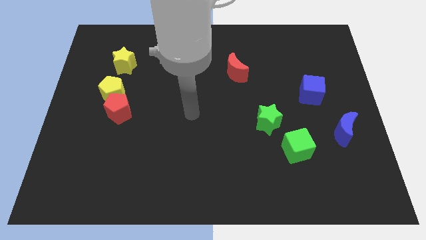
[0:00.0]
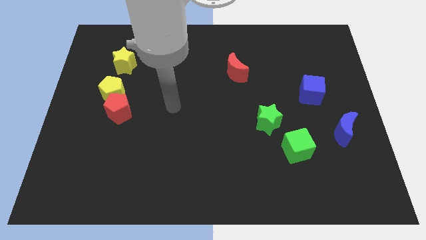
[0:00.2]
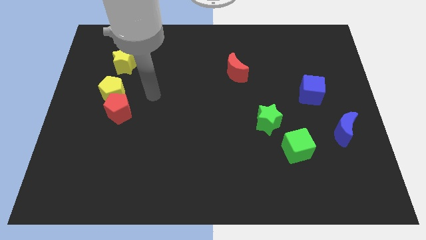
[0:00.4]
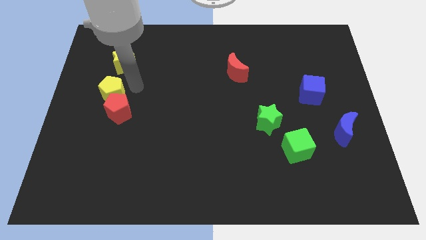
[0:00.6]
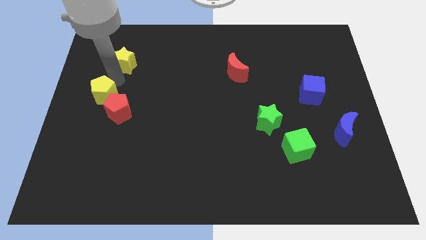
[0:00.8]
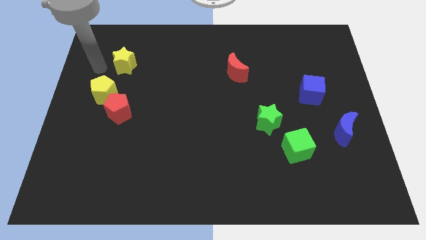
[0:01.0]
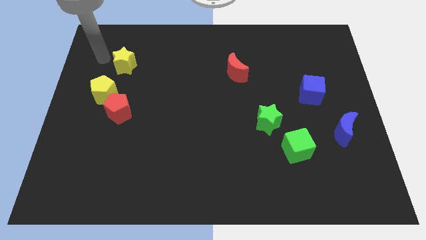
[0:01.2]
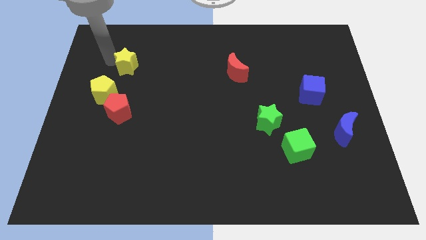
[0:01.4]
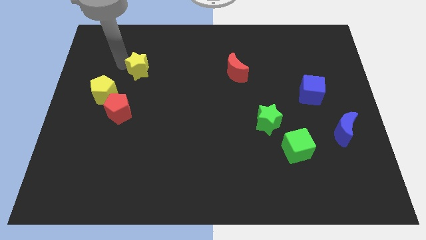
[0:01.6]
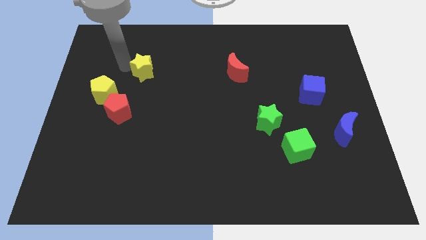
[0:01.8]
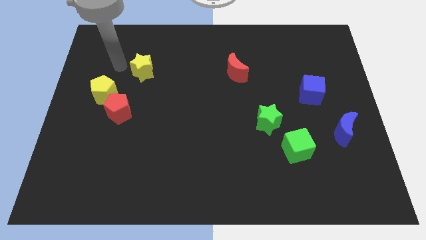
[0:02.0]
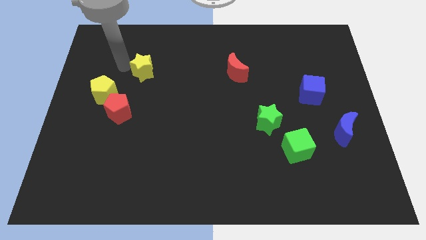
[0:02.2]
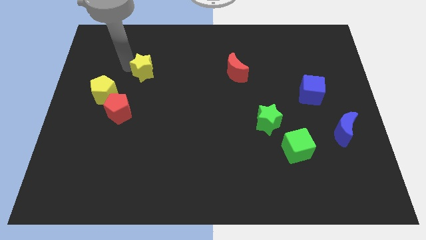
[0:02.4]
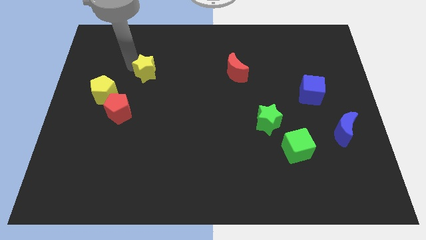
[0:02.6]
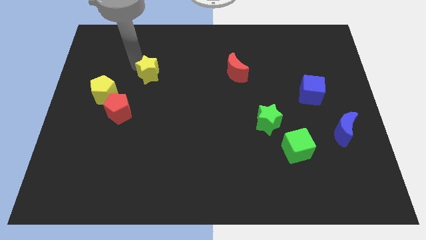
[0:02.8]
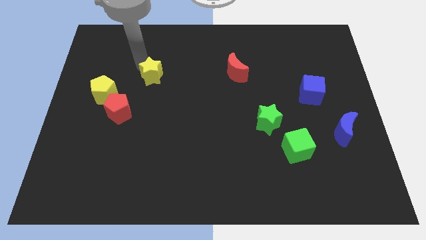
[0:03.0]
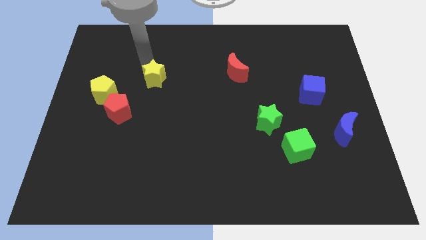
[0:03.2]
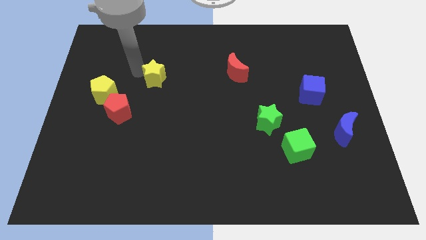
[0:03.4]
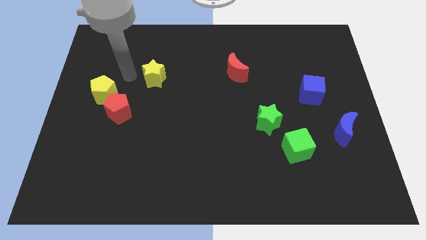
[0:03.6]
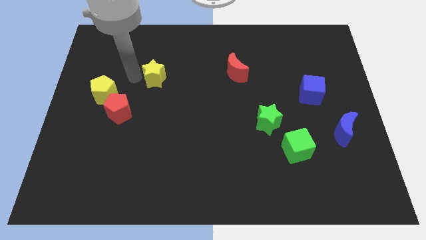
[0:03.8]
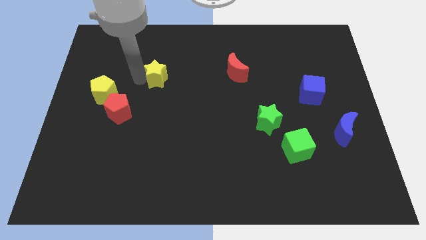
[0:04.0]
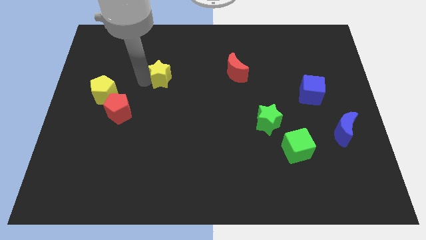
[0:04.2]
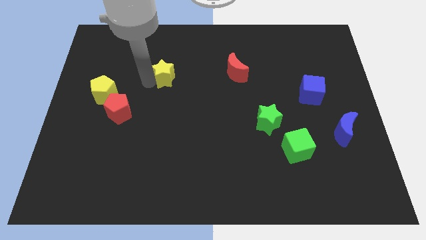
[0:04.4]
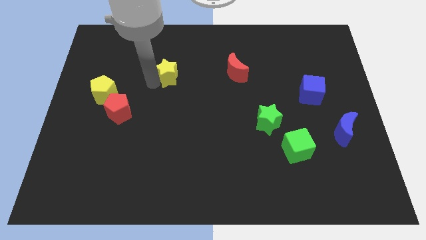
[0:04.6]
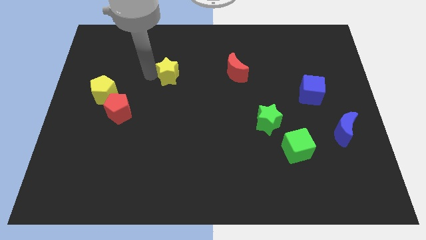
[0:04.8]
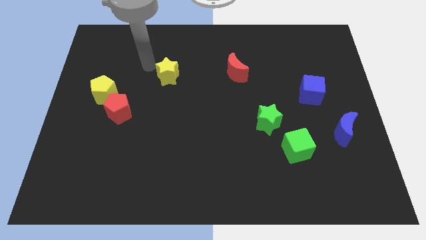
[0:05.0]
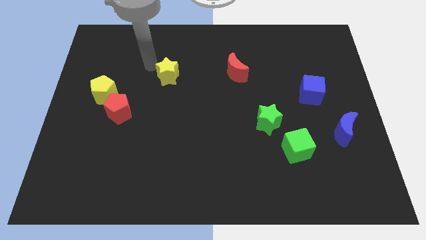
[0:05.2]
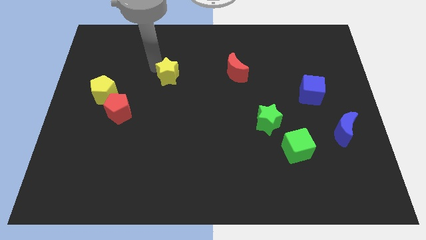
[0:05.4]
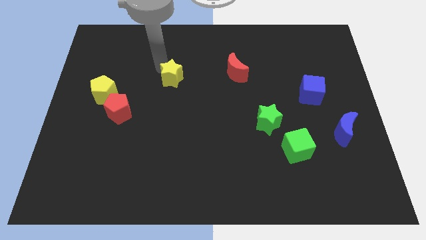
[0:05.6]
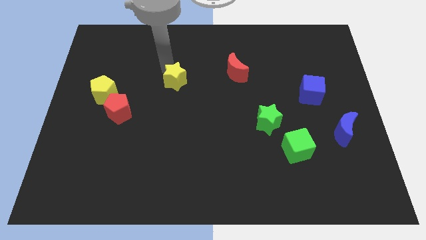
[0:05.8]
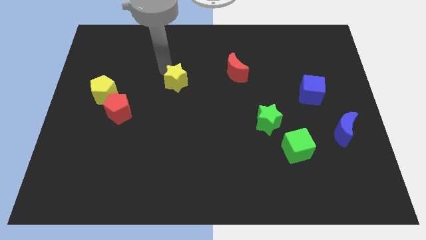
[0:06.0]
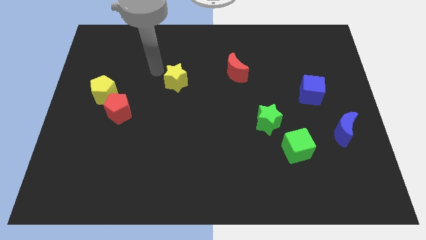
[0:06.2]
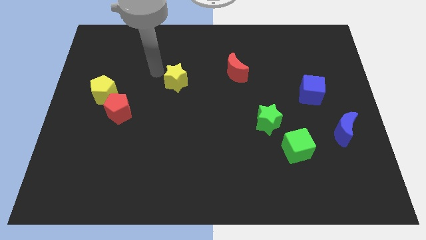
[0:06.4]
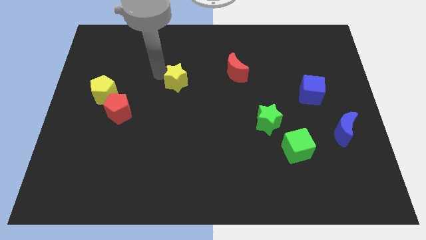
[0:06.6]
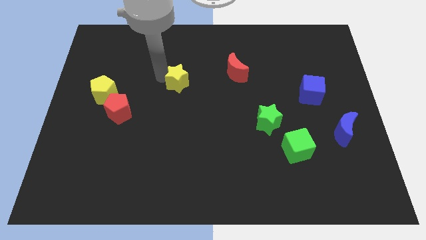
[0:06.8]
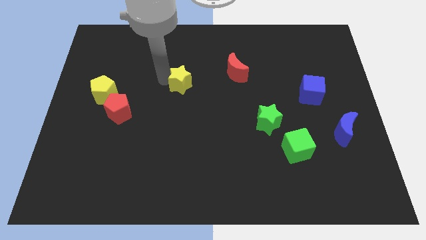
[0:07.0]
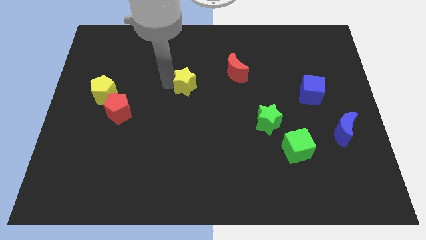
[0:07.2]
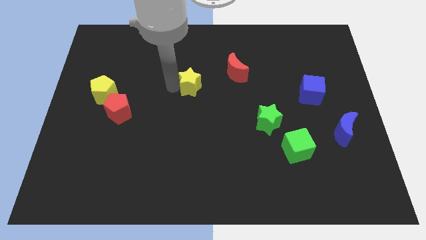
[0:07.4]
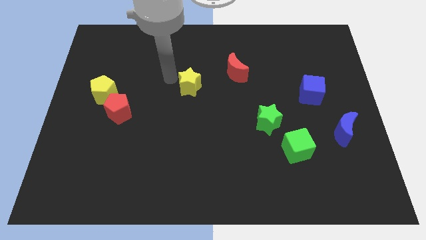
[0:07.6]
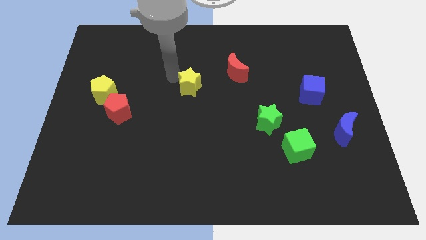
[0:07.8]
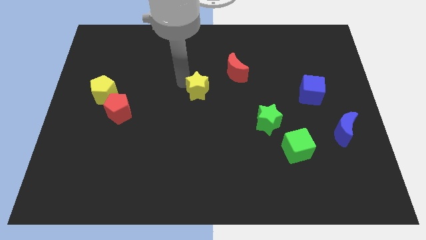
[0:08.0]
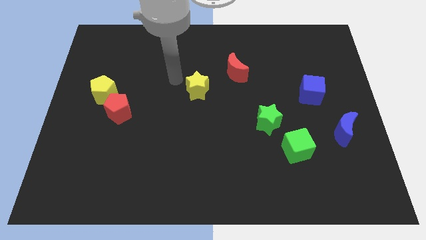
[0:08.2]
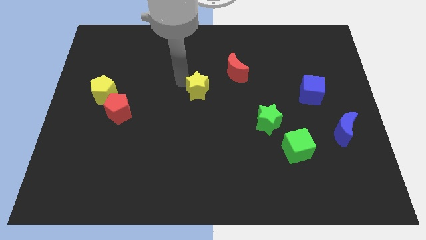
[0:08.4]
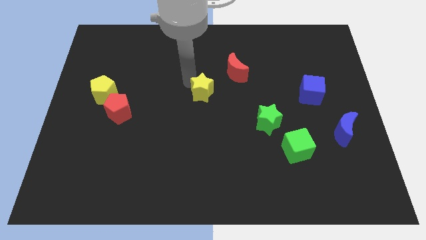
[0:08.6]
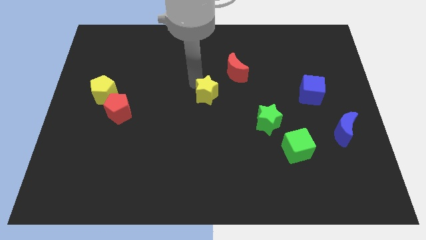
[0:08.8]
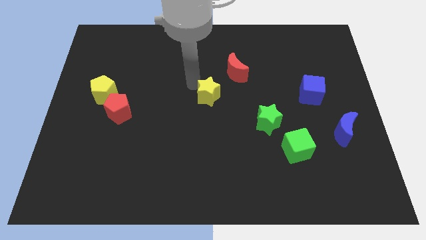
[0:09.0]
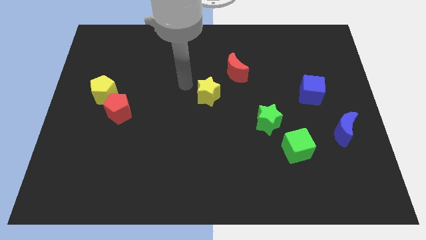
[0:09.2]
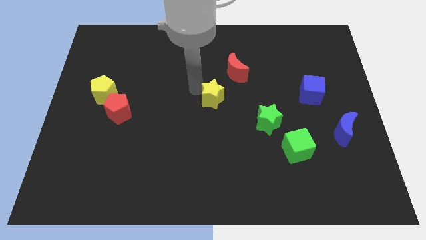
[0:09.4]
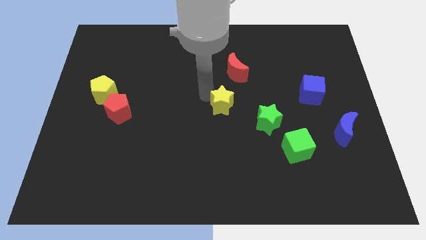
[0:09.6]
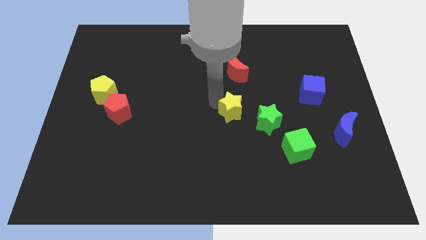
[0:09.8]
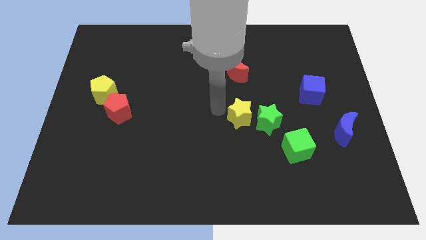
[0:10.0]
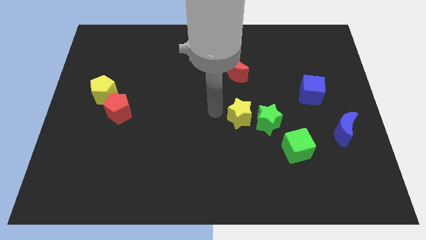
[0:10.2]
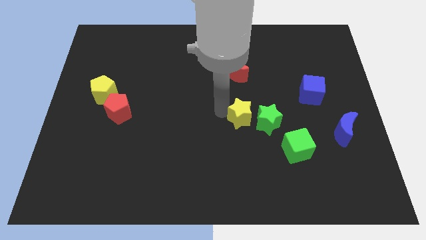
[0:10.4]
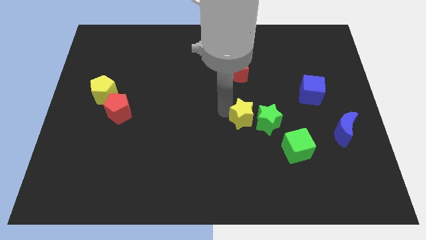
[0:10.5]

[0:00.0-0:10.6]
push the yellow star to the green star

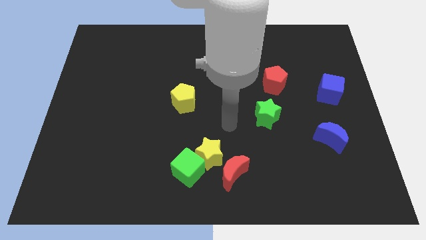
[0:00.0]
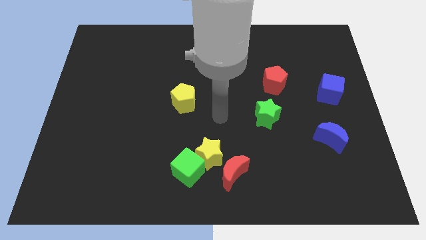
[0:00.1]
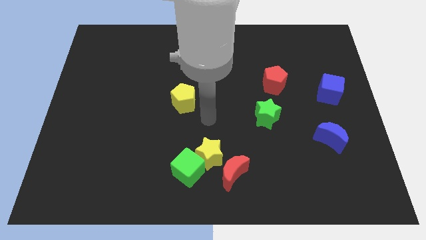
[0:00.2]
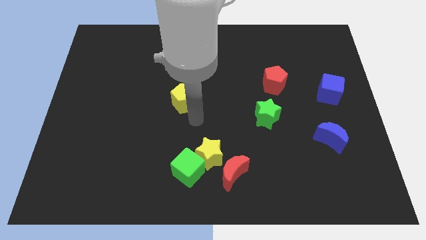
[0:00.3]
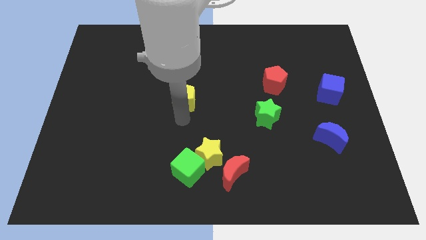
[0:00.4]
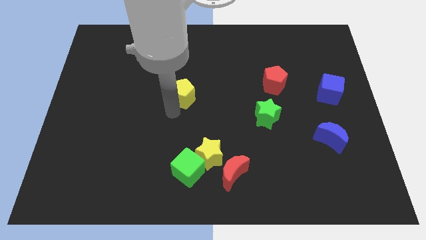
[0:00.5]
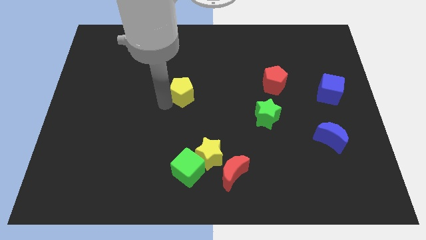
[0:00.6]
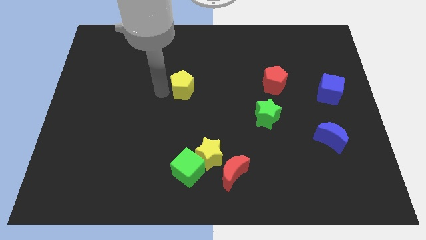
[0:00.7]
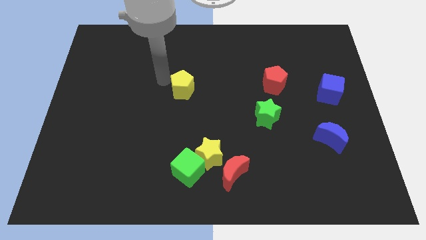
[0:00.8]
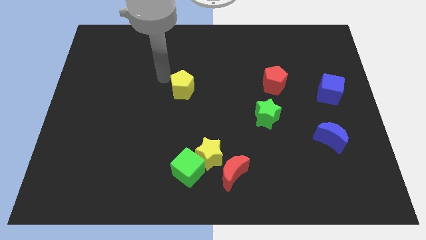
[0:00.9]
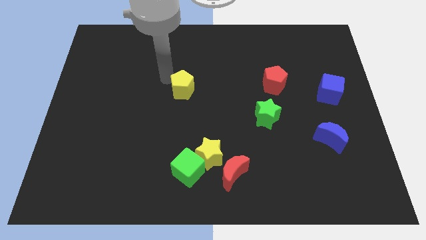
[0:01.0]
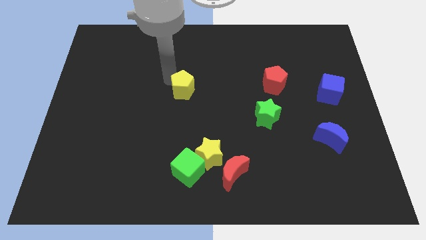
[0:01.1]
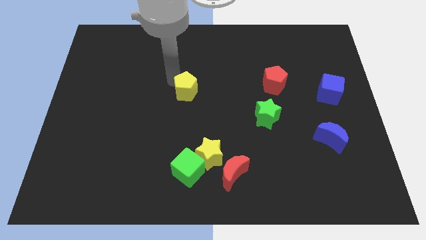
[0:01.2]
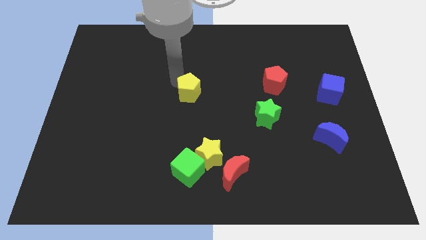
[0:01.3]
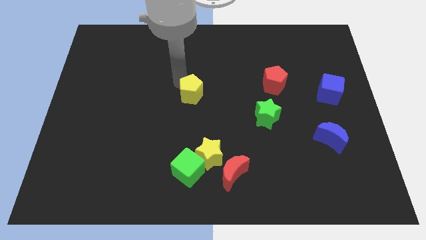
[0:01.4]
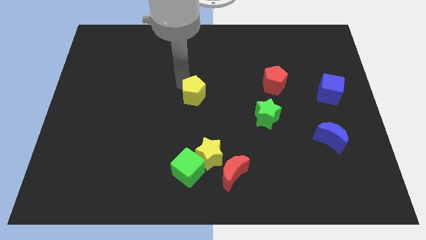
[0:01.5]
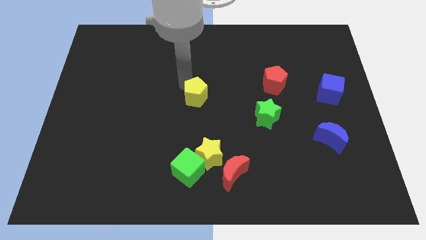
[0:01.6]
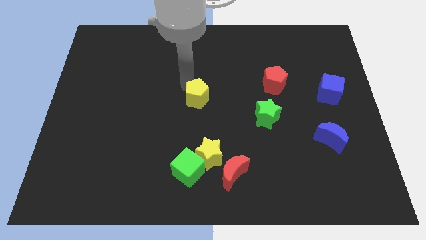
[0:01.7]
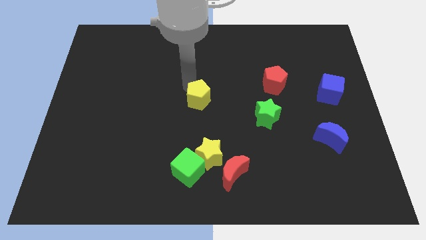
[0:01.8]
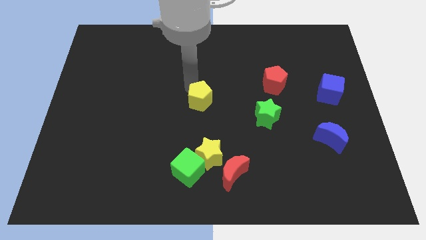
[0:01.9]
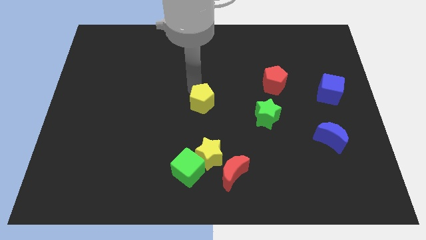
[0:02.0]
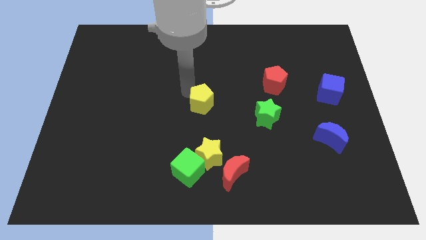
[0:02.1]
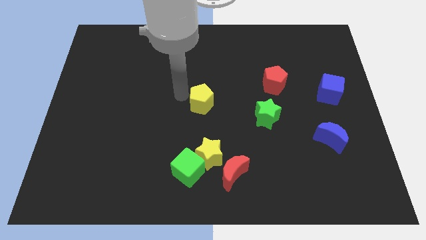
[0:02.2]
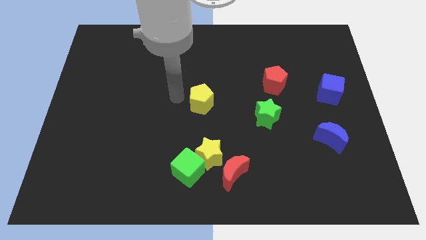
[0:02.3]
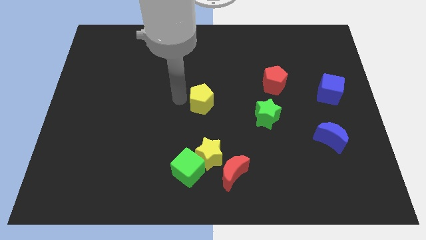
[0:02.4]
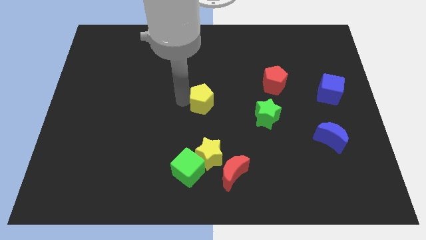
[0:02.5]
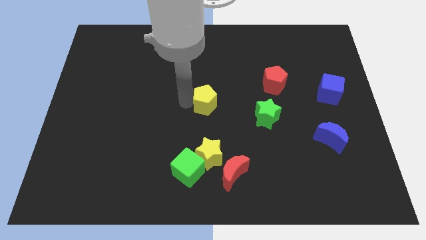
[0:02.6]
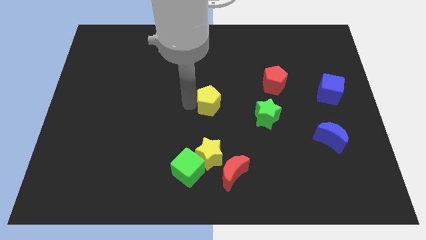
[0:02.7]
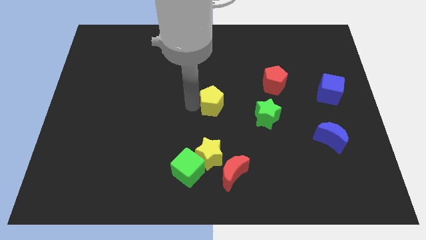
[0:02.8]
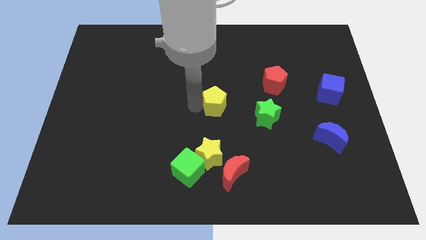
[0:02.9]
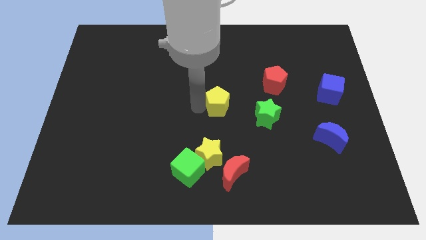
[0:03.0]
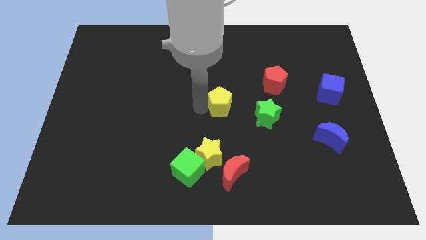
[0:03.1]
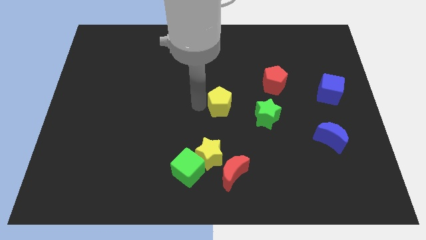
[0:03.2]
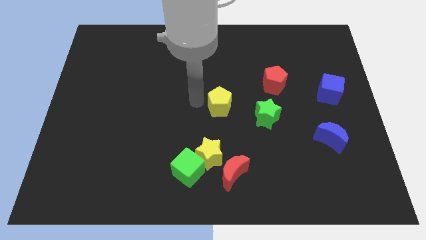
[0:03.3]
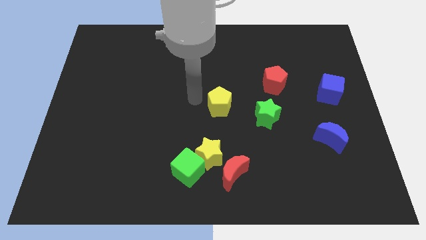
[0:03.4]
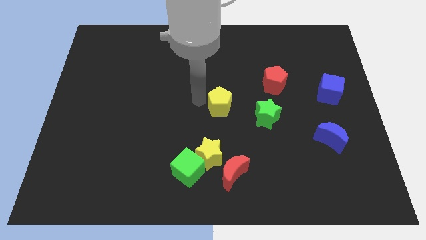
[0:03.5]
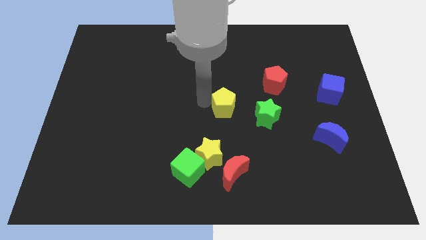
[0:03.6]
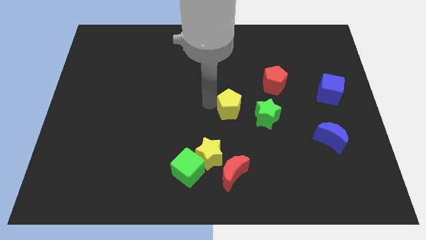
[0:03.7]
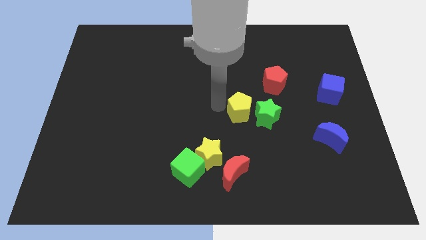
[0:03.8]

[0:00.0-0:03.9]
push the yellow pentagon towards the green star
